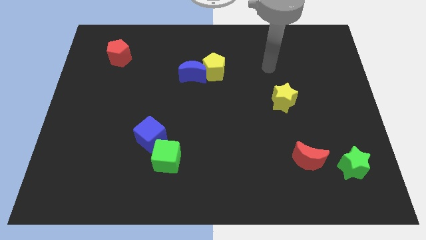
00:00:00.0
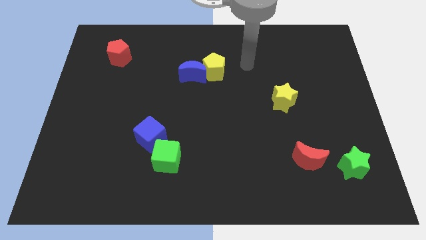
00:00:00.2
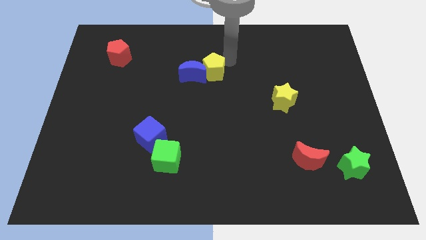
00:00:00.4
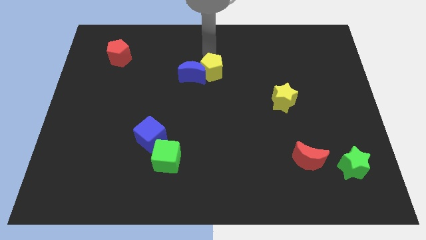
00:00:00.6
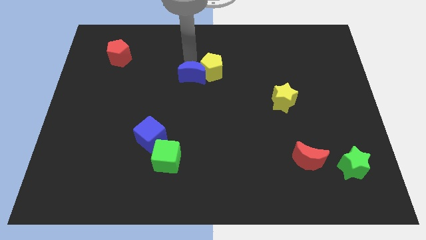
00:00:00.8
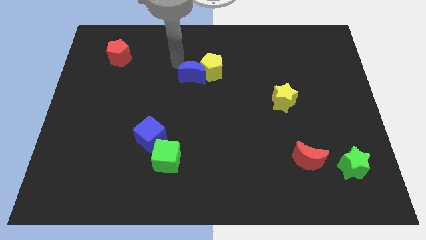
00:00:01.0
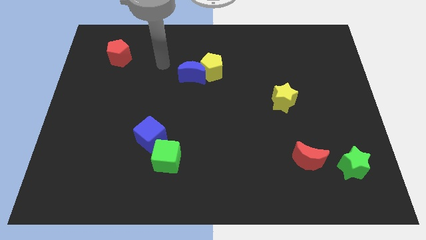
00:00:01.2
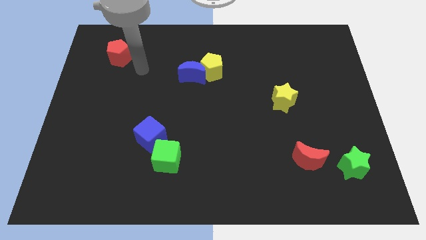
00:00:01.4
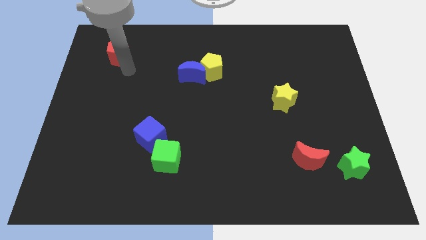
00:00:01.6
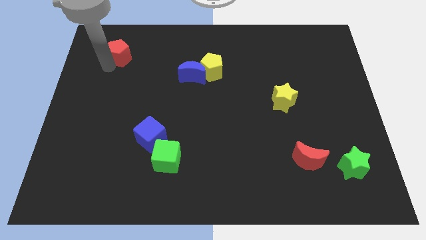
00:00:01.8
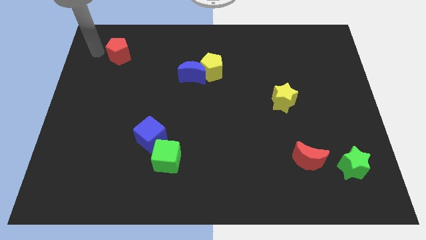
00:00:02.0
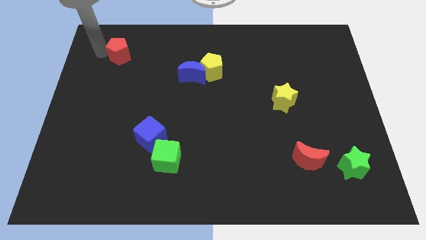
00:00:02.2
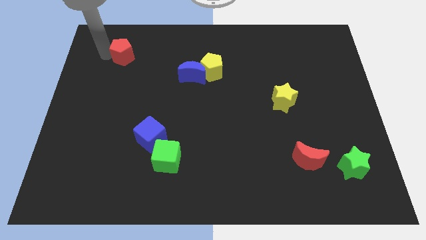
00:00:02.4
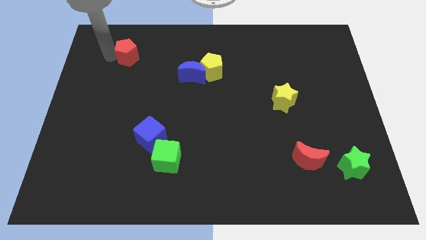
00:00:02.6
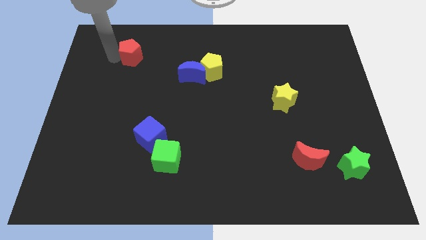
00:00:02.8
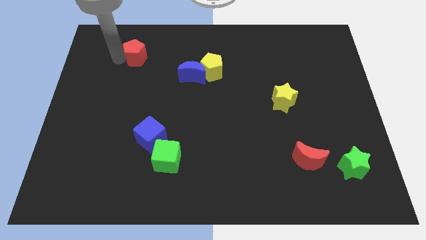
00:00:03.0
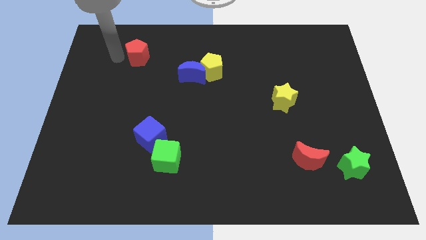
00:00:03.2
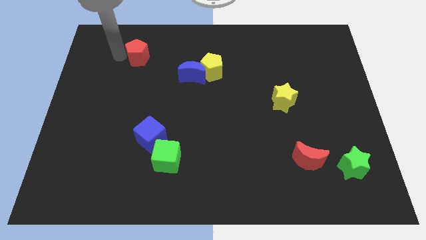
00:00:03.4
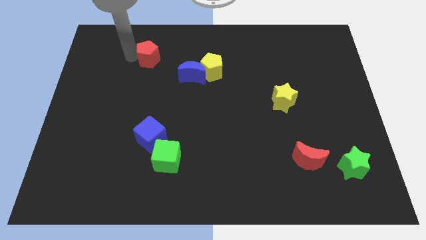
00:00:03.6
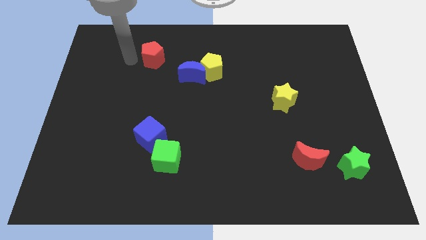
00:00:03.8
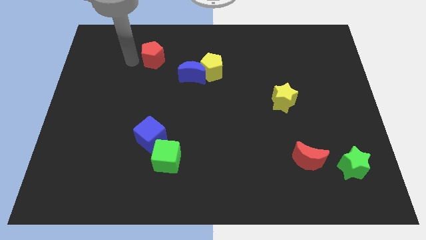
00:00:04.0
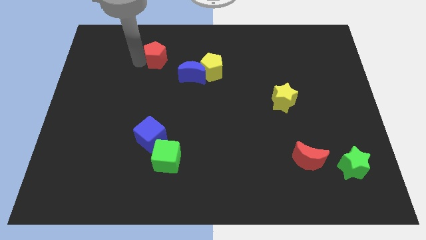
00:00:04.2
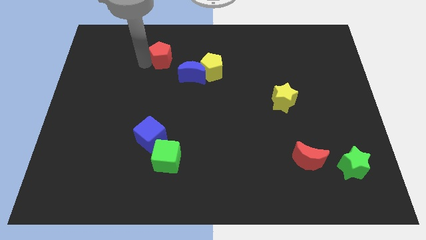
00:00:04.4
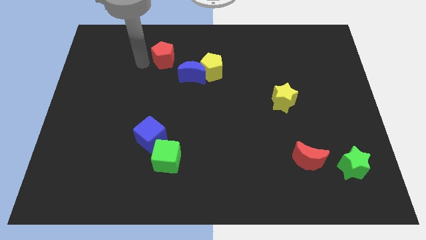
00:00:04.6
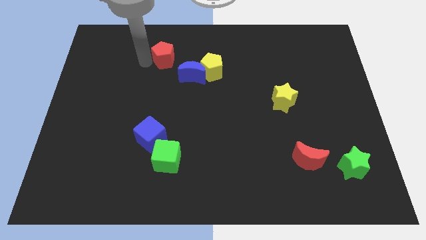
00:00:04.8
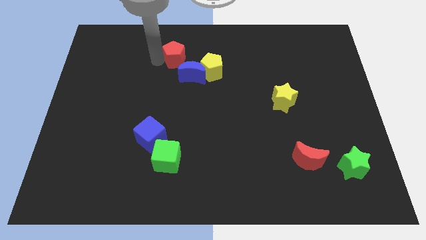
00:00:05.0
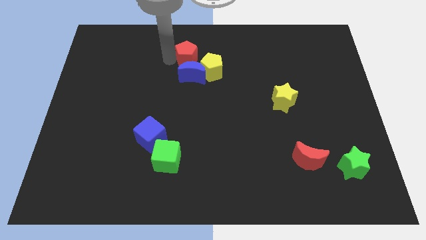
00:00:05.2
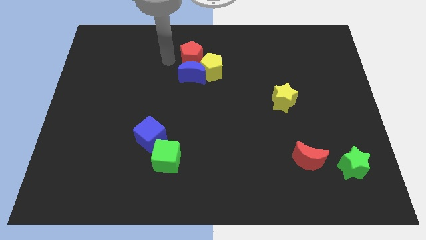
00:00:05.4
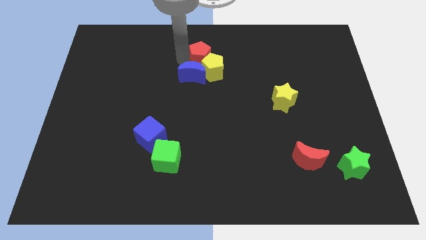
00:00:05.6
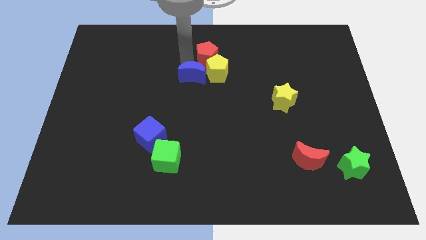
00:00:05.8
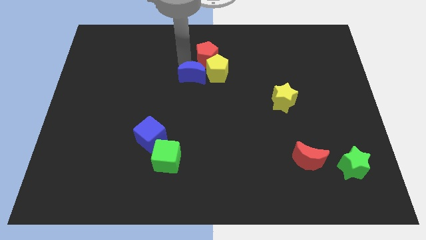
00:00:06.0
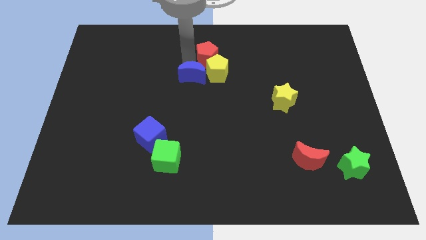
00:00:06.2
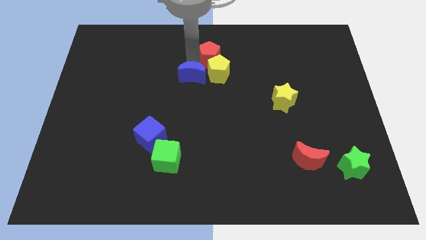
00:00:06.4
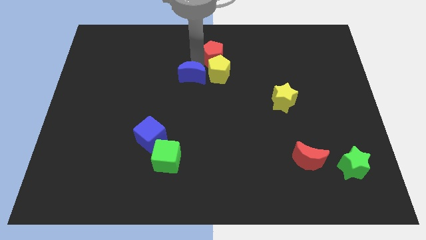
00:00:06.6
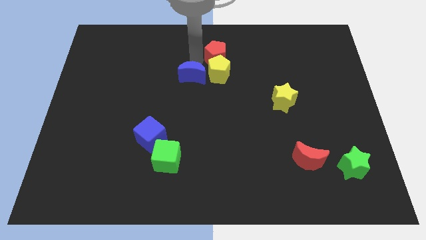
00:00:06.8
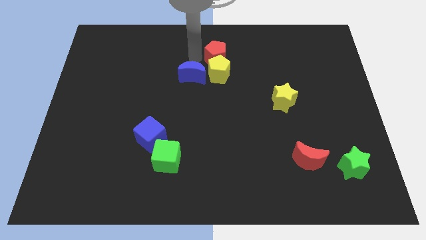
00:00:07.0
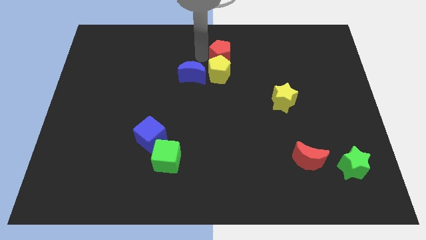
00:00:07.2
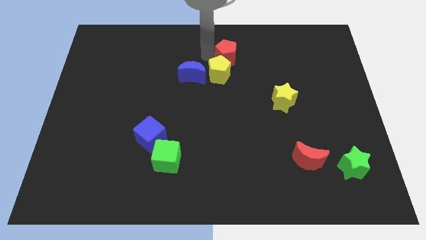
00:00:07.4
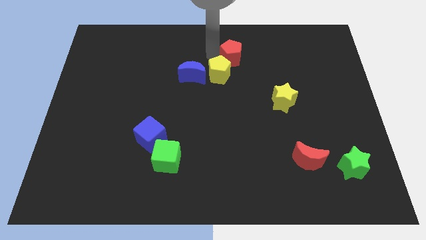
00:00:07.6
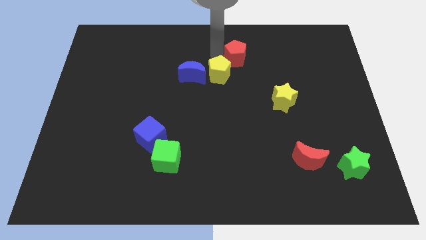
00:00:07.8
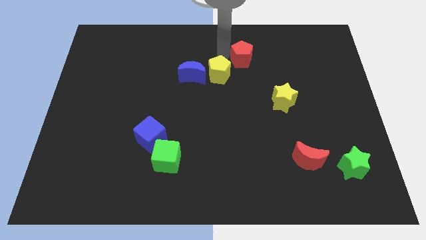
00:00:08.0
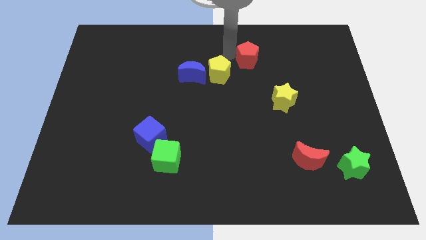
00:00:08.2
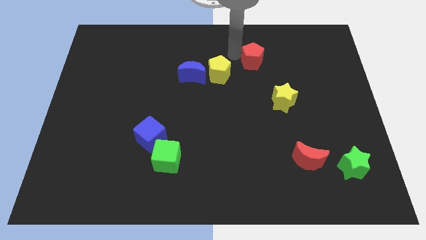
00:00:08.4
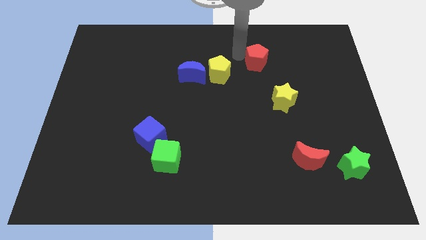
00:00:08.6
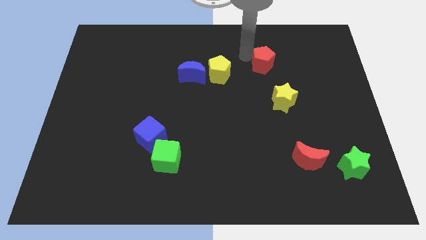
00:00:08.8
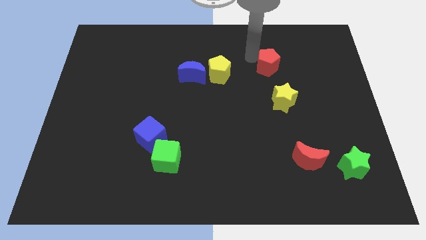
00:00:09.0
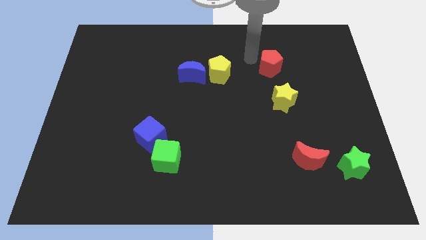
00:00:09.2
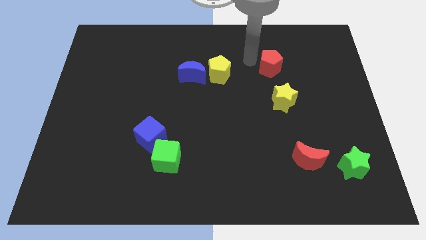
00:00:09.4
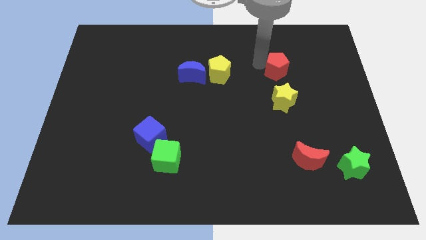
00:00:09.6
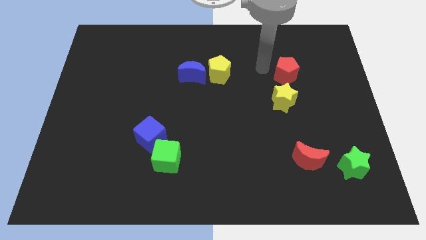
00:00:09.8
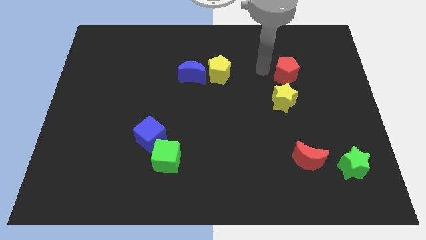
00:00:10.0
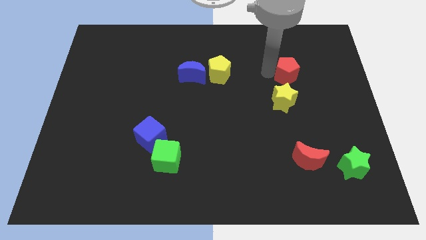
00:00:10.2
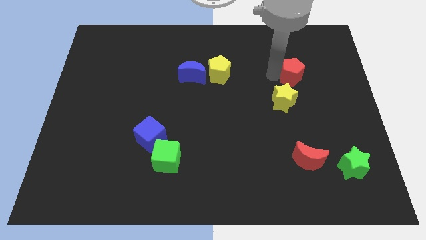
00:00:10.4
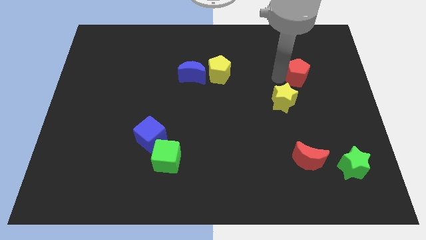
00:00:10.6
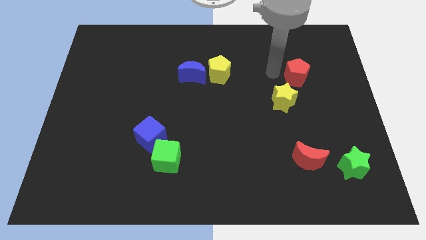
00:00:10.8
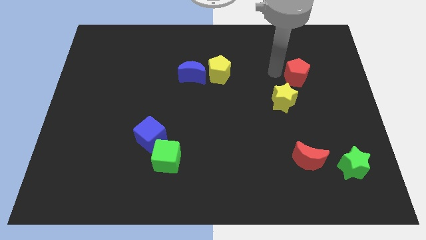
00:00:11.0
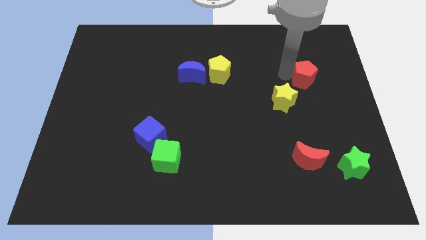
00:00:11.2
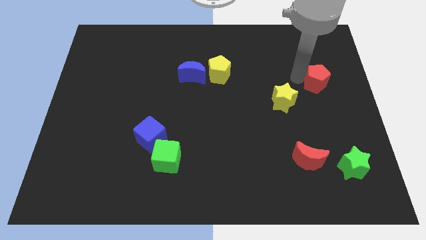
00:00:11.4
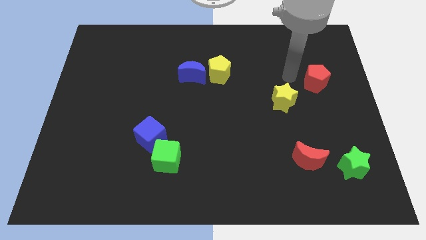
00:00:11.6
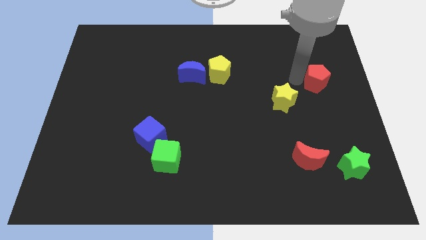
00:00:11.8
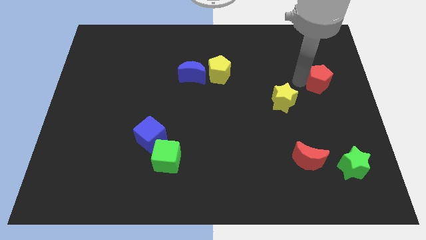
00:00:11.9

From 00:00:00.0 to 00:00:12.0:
slide the red pentagon to the right side of the board
